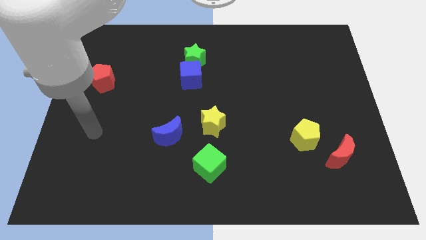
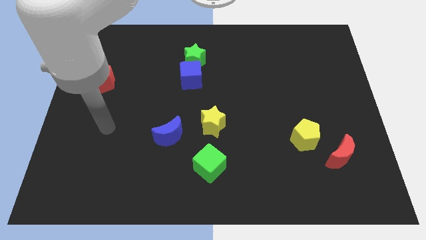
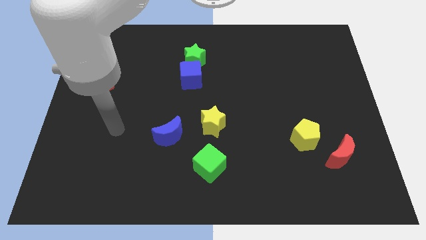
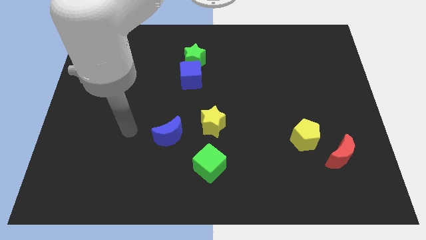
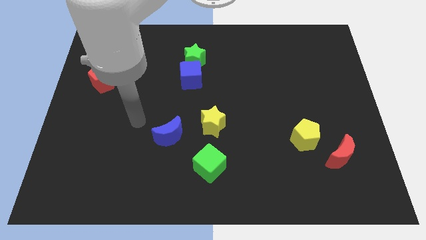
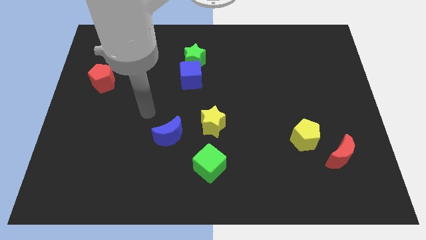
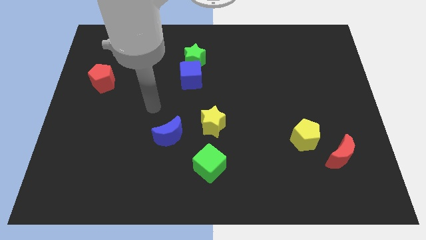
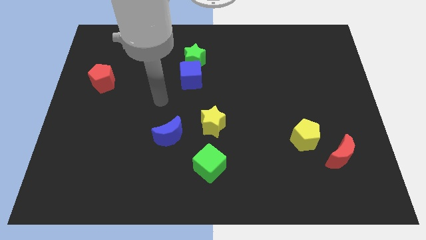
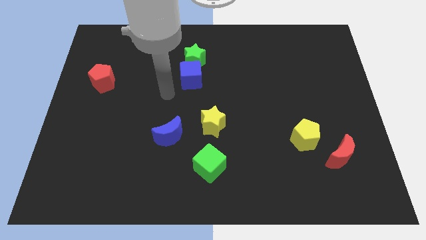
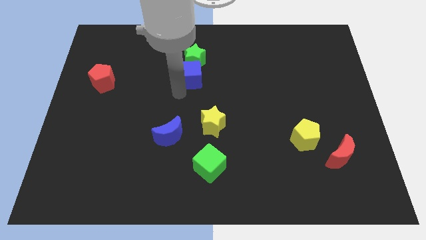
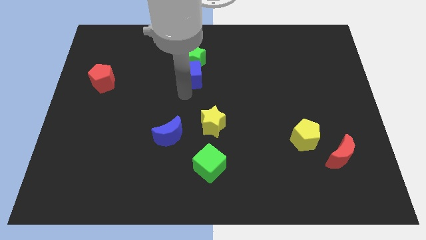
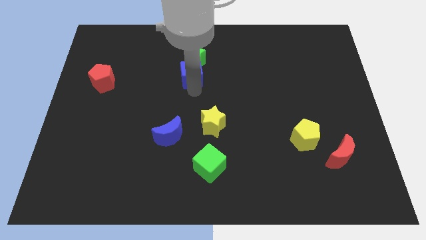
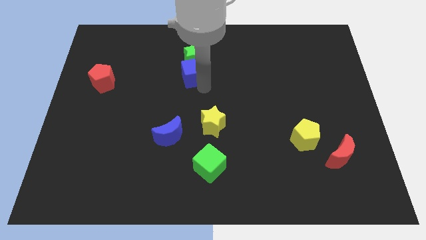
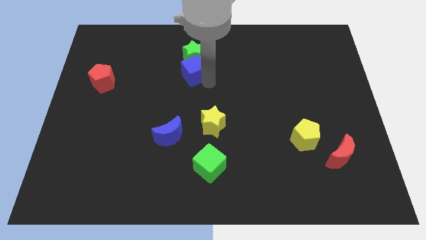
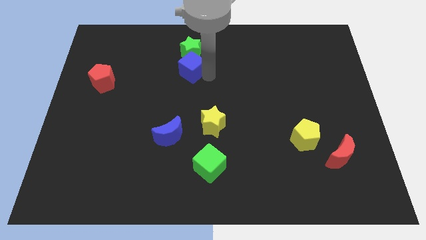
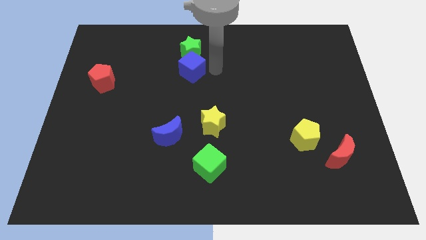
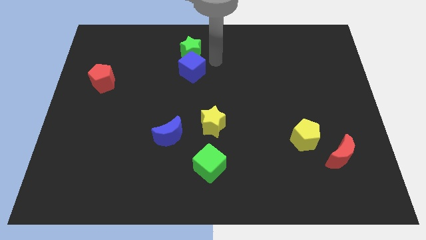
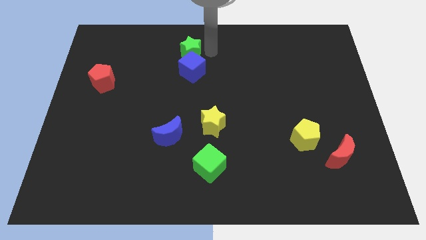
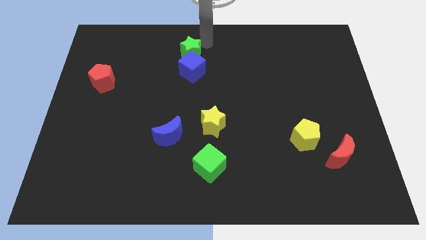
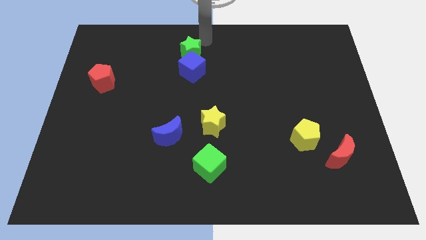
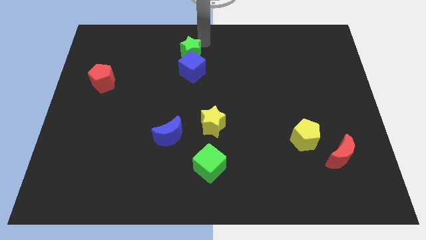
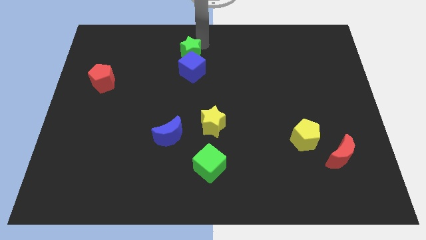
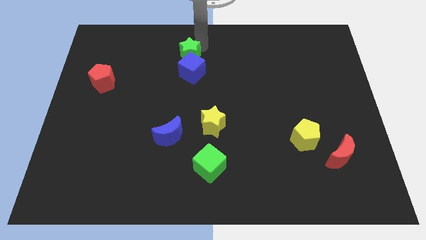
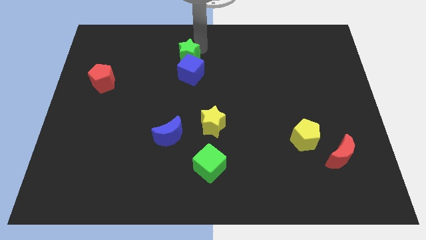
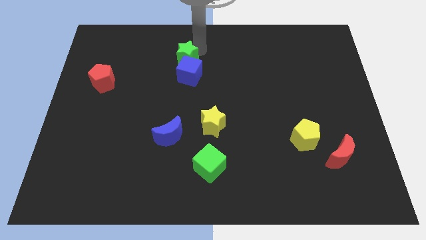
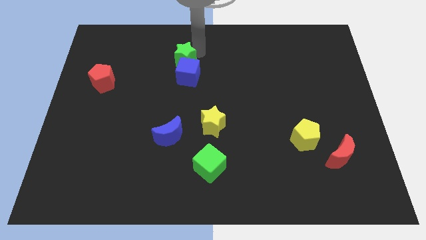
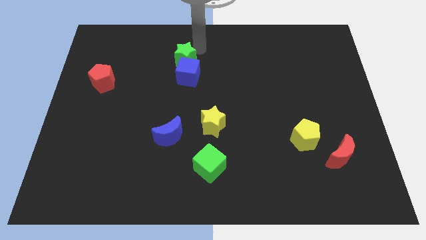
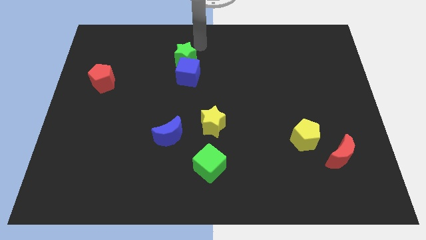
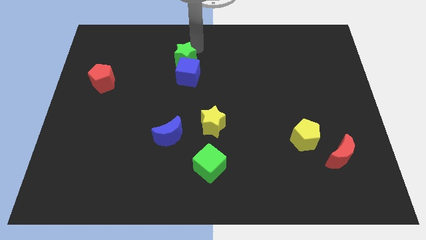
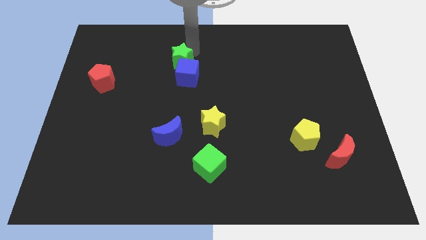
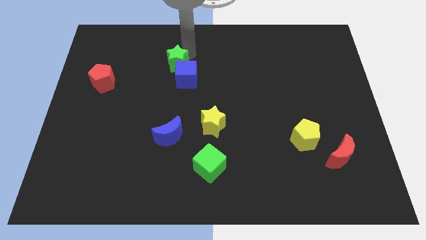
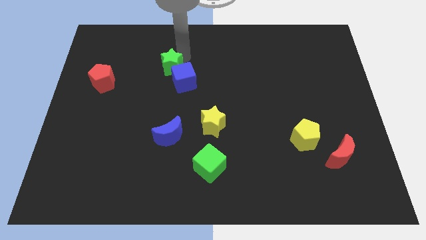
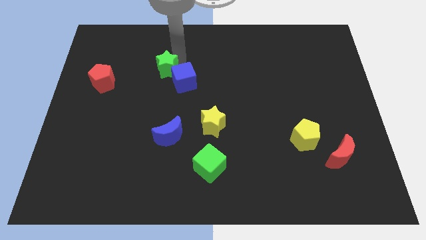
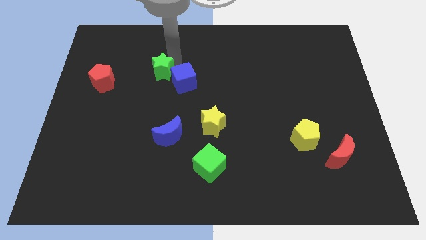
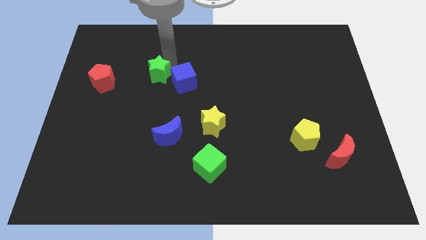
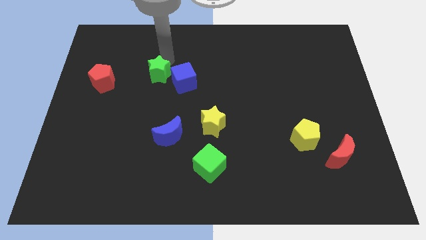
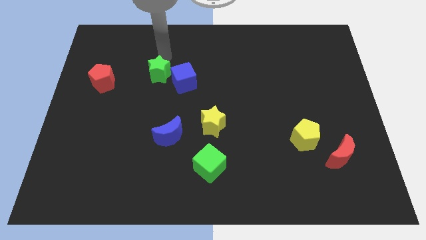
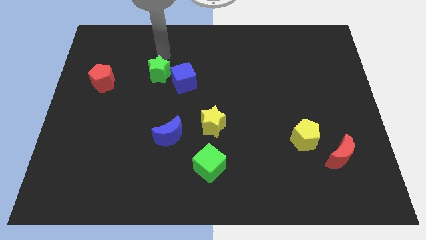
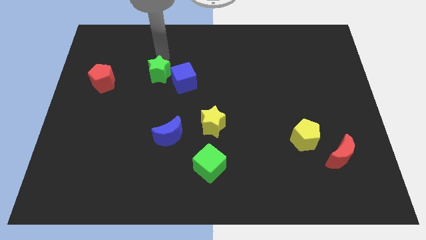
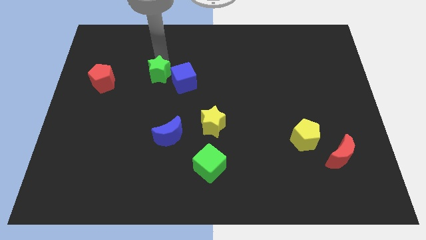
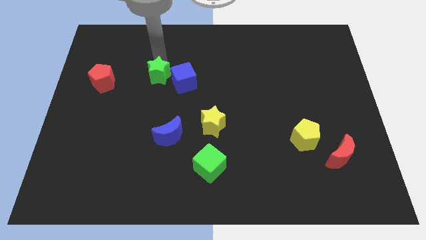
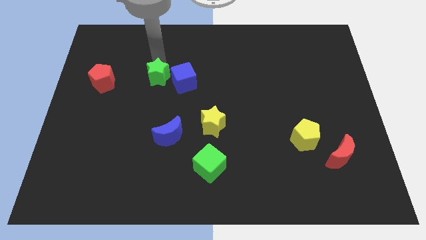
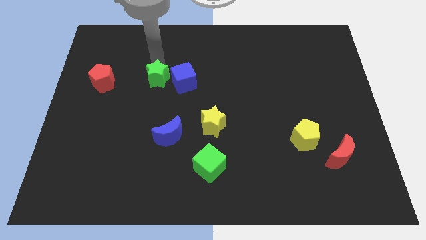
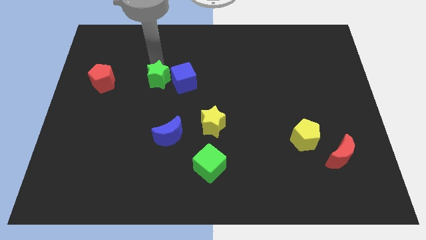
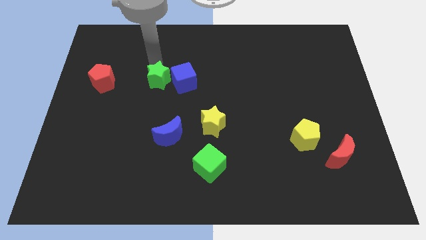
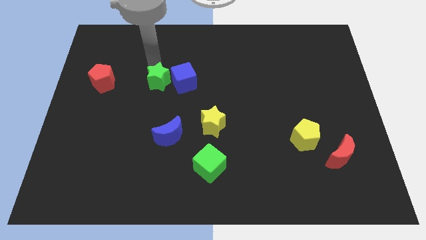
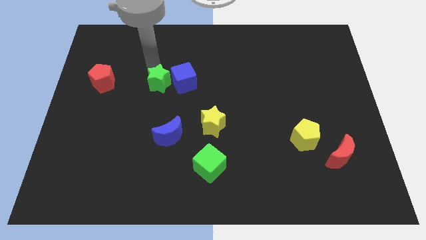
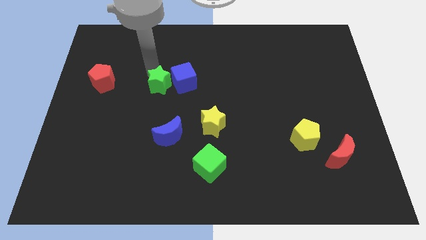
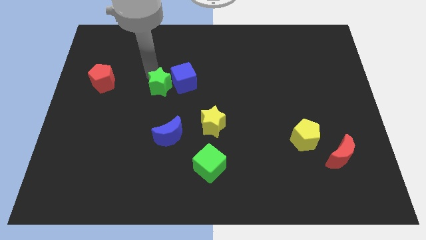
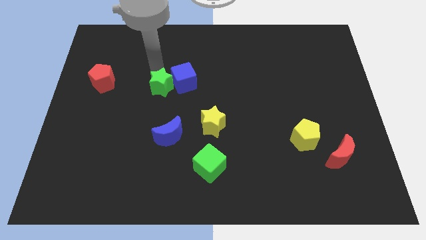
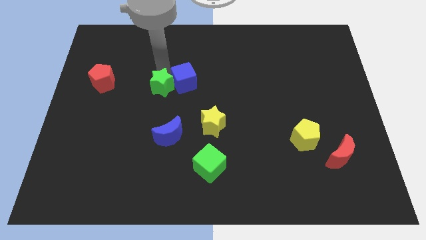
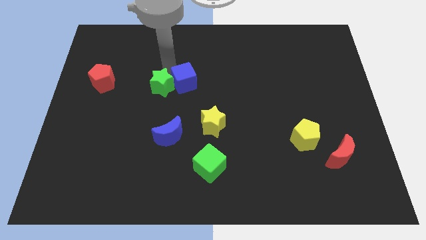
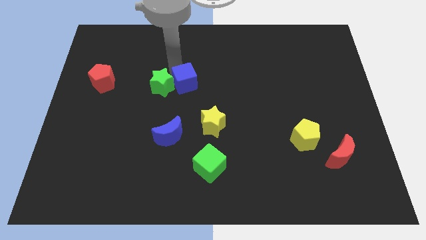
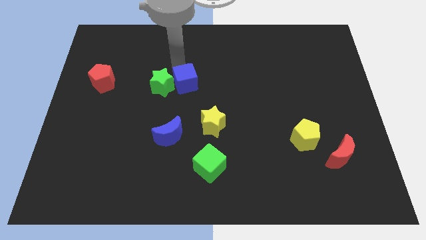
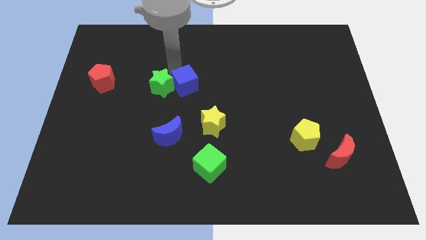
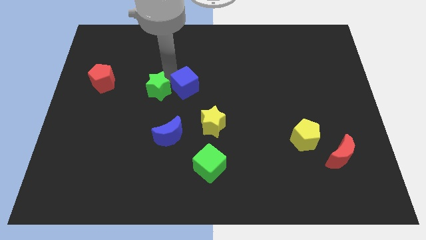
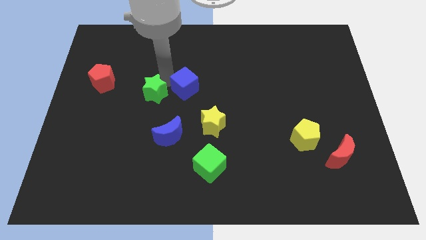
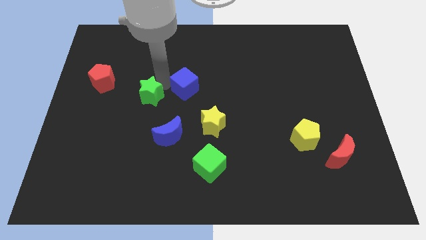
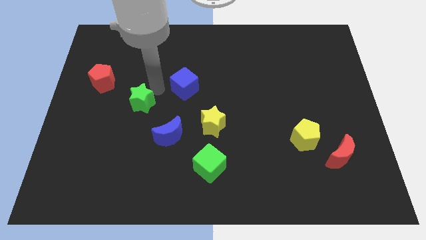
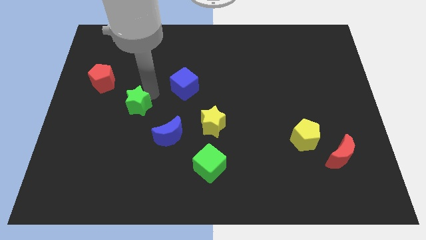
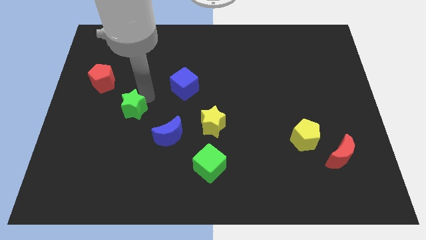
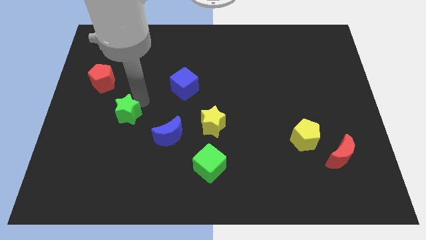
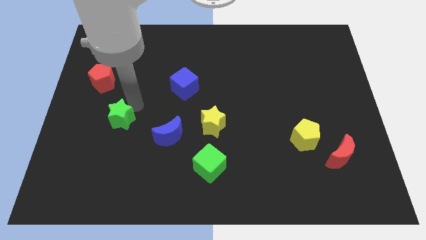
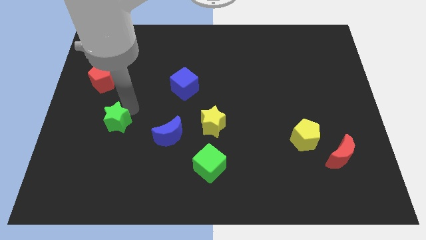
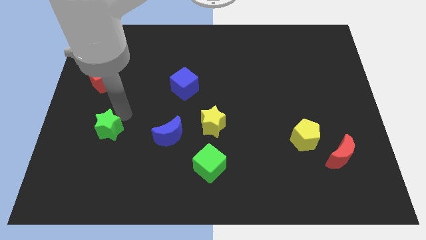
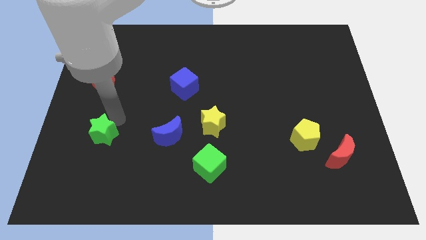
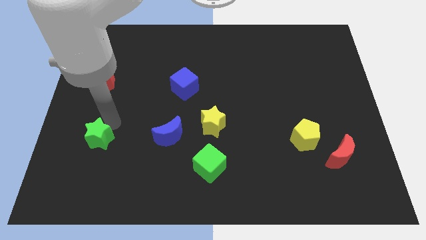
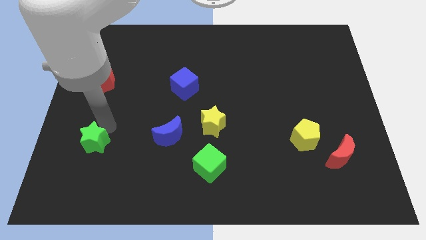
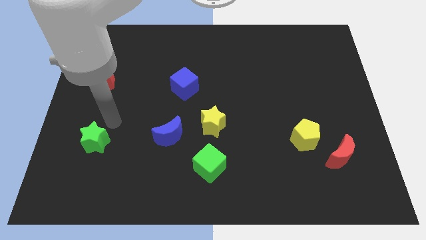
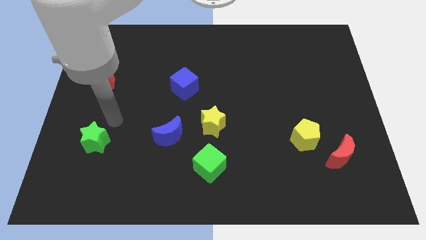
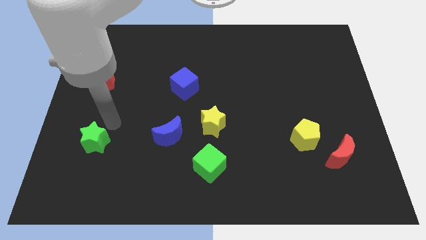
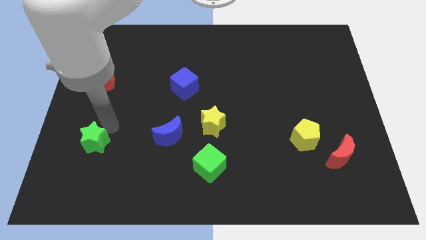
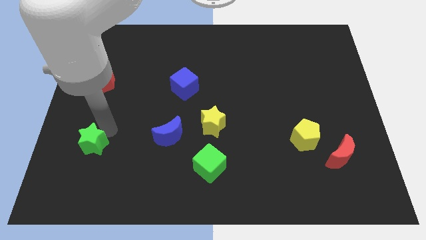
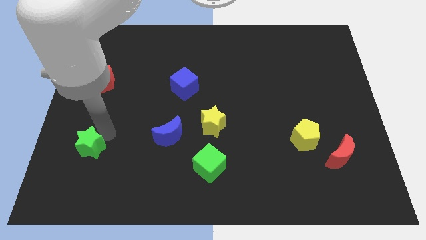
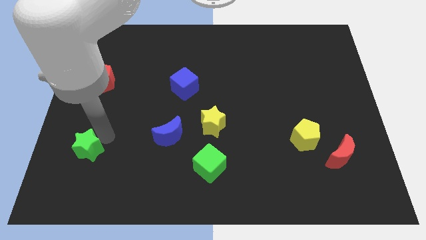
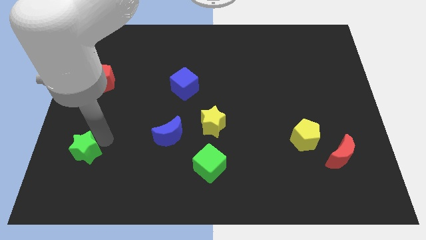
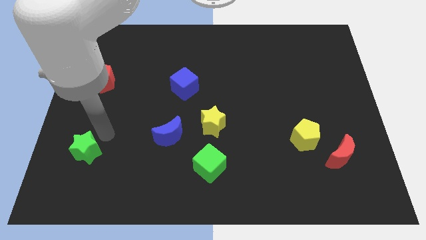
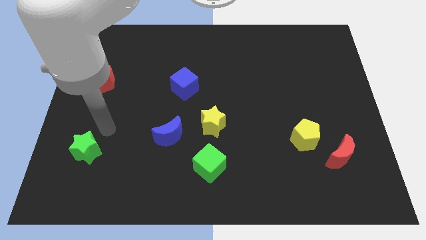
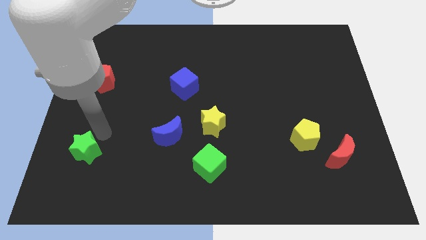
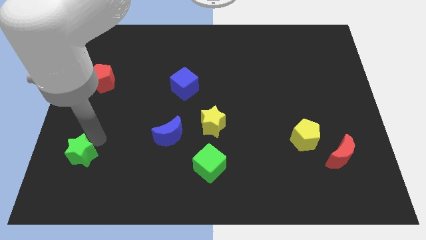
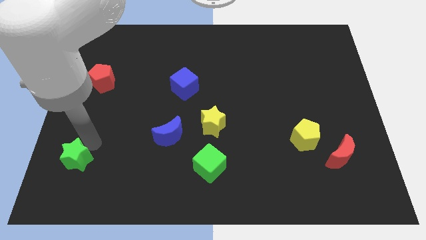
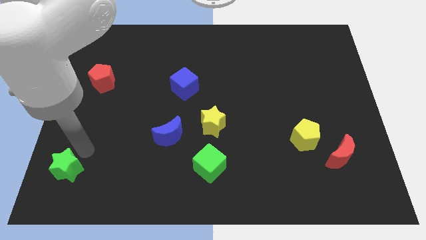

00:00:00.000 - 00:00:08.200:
move the green star to the bottom left corner
